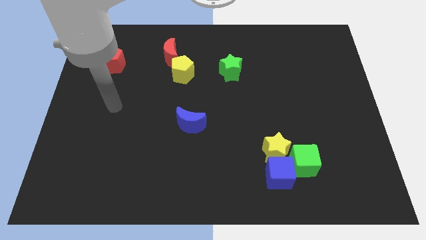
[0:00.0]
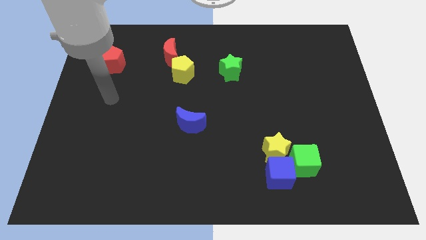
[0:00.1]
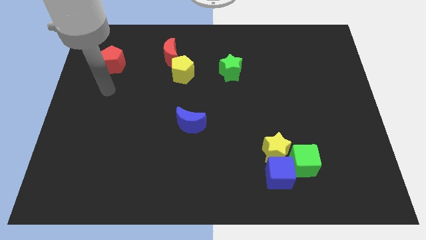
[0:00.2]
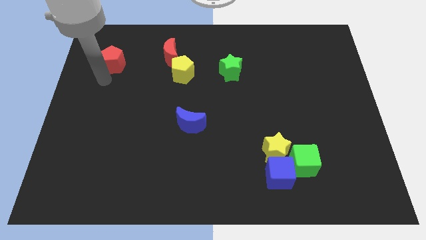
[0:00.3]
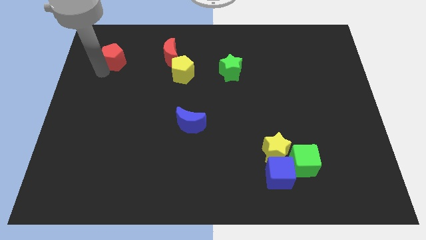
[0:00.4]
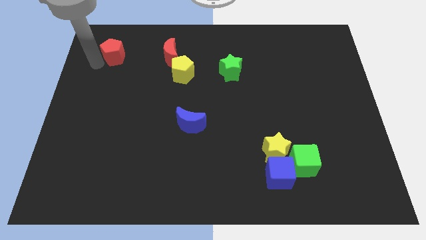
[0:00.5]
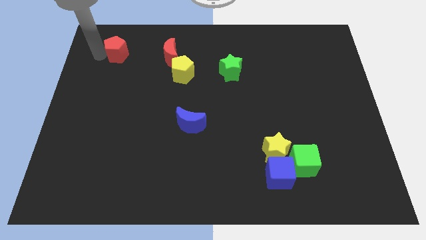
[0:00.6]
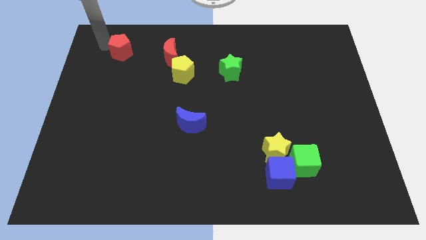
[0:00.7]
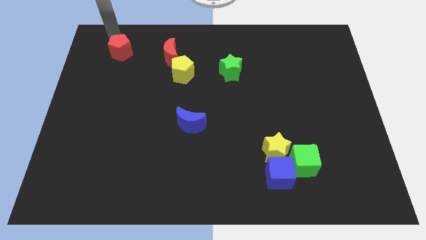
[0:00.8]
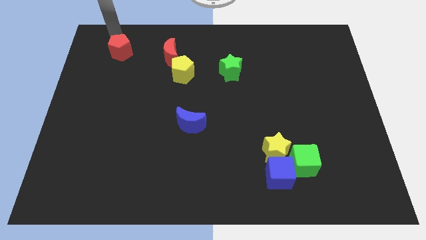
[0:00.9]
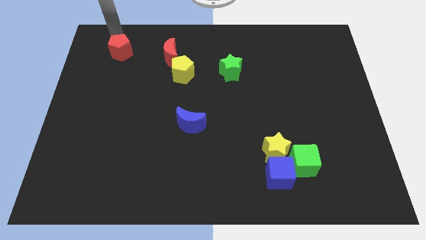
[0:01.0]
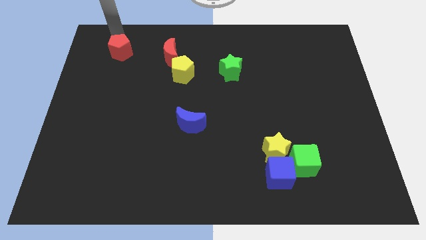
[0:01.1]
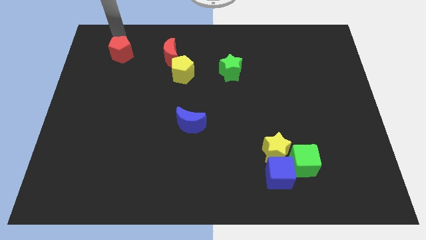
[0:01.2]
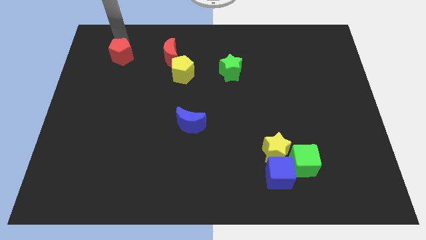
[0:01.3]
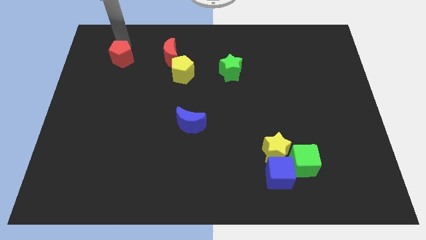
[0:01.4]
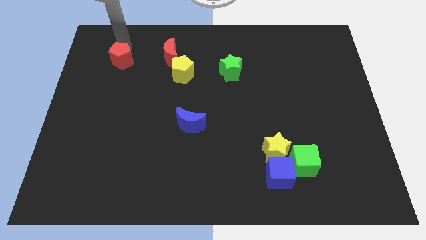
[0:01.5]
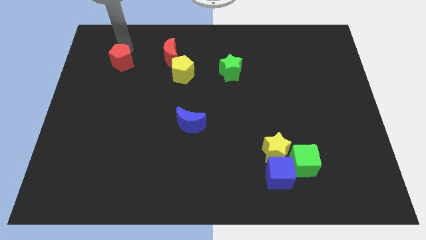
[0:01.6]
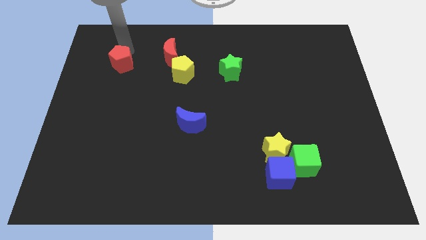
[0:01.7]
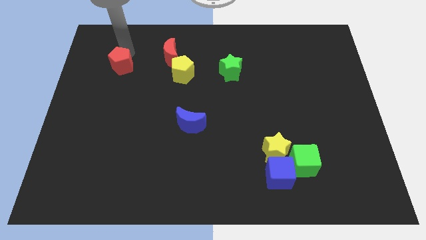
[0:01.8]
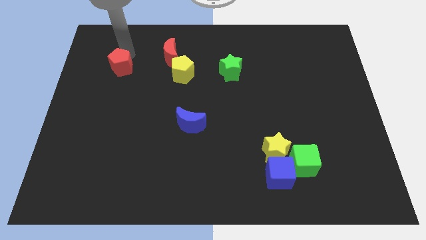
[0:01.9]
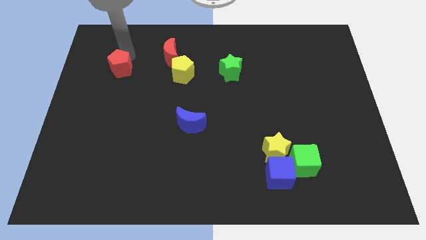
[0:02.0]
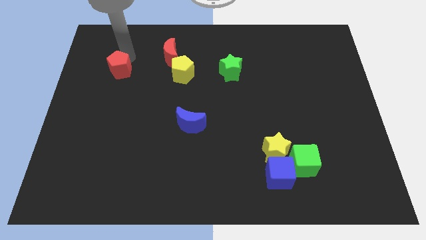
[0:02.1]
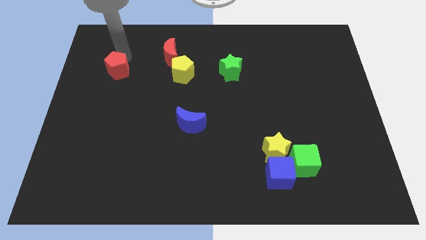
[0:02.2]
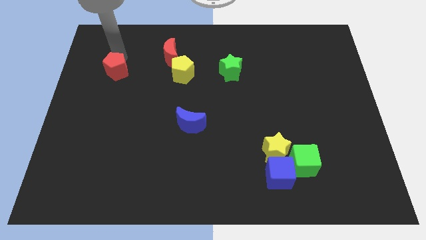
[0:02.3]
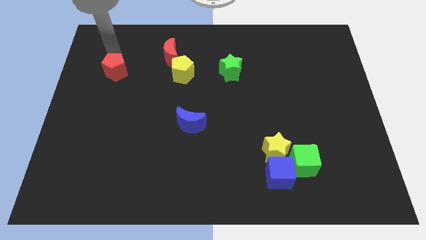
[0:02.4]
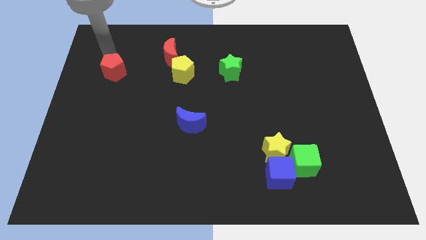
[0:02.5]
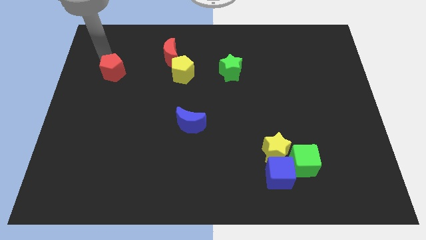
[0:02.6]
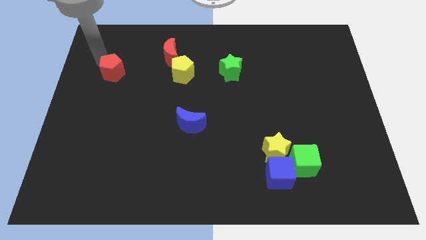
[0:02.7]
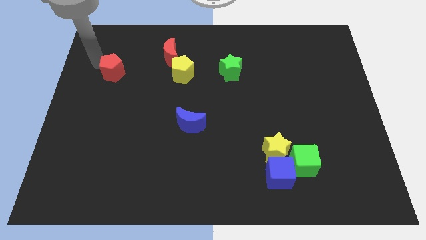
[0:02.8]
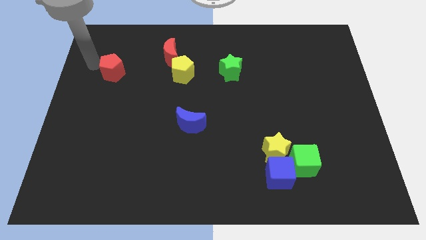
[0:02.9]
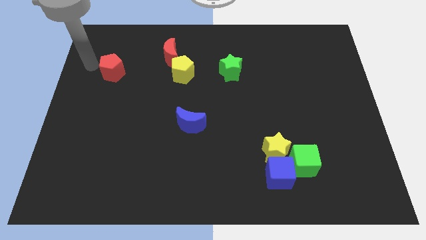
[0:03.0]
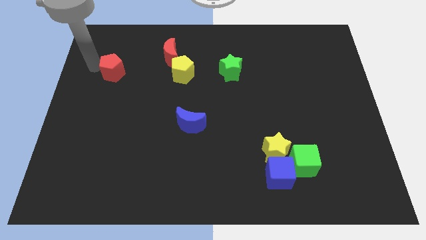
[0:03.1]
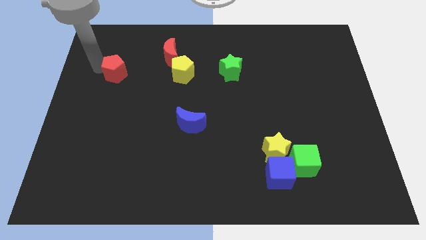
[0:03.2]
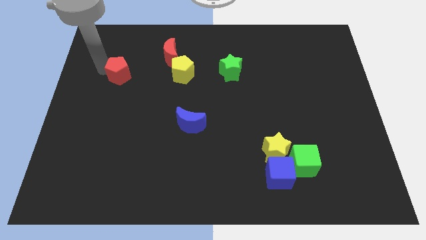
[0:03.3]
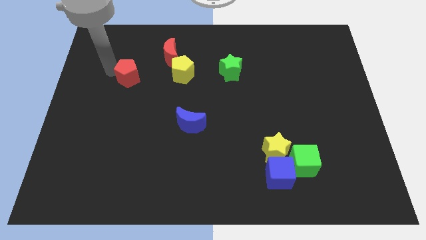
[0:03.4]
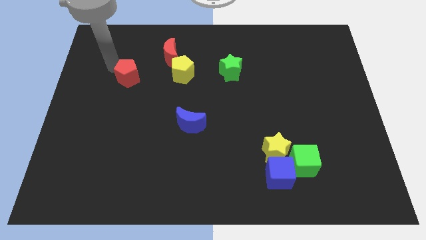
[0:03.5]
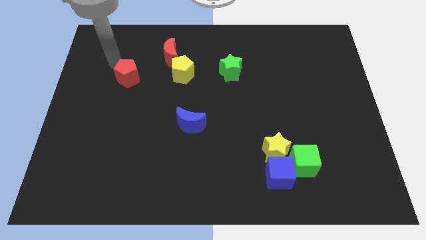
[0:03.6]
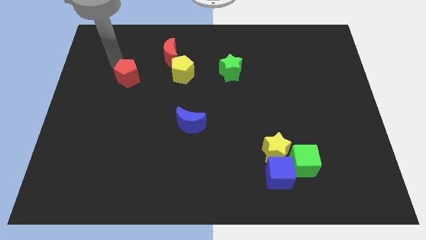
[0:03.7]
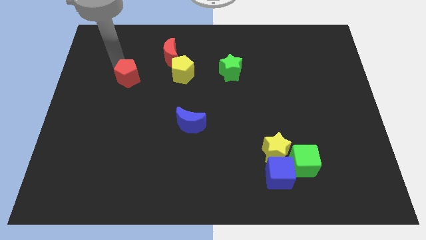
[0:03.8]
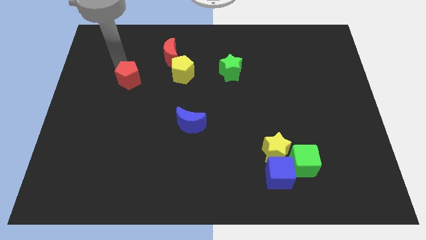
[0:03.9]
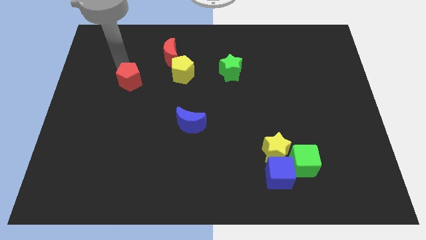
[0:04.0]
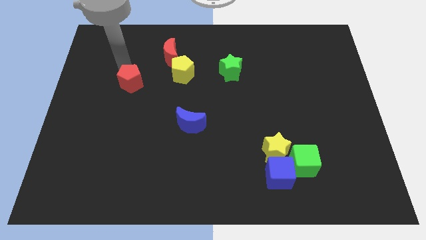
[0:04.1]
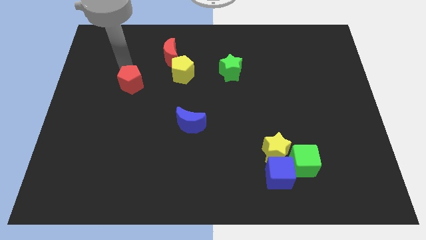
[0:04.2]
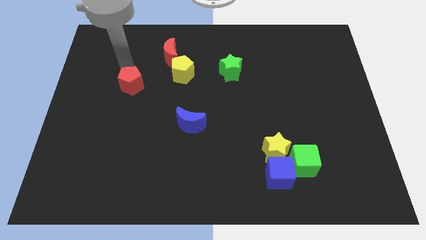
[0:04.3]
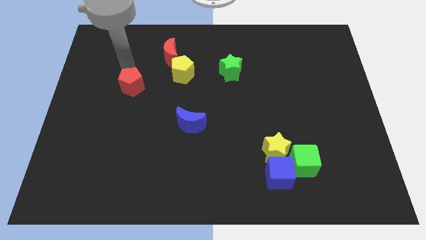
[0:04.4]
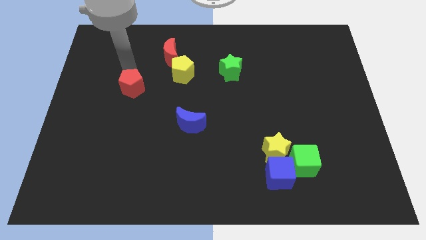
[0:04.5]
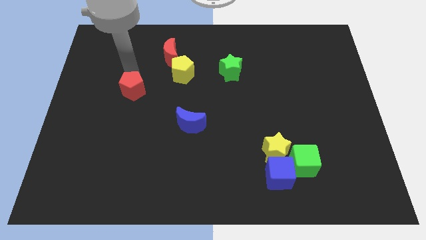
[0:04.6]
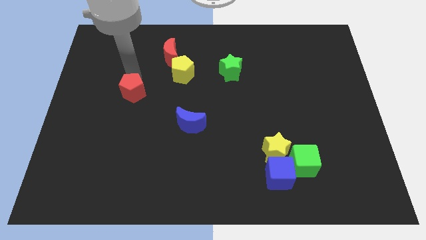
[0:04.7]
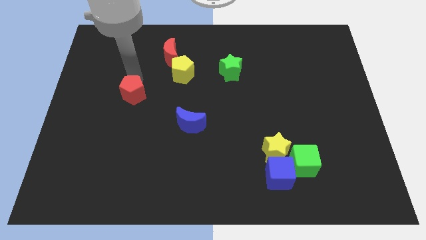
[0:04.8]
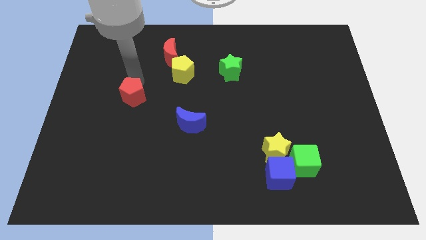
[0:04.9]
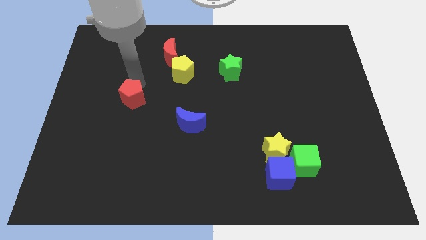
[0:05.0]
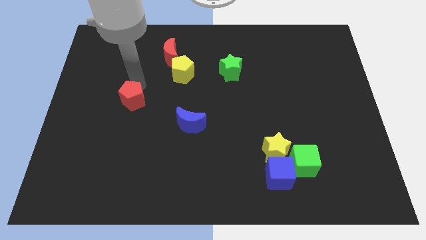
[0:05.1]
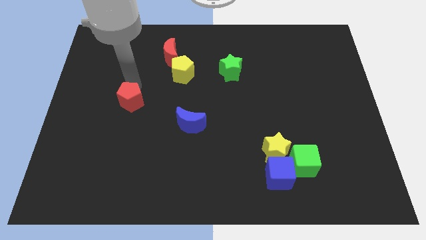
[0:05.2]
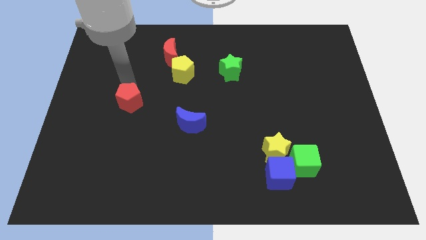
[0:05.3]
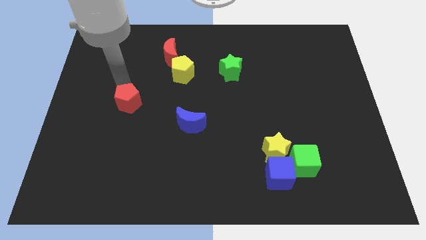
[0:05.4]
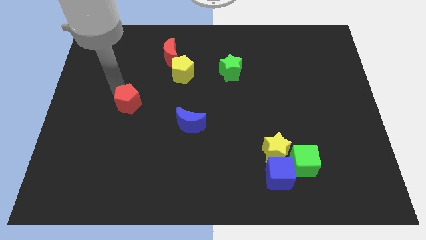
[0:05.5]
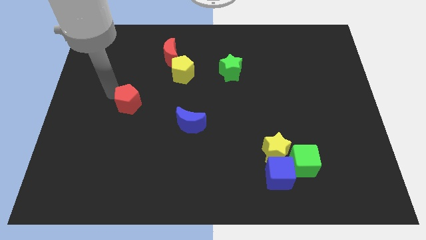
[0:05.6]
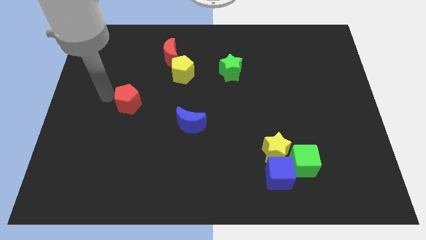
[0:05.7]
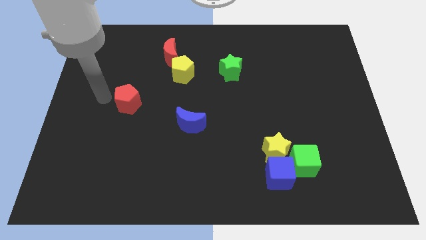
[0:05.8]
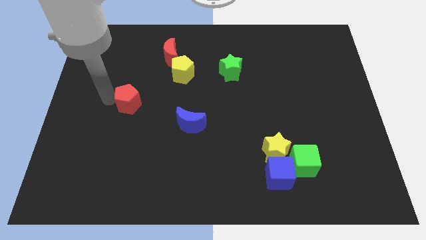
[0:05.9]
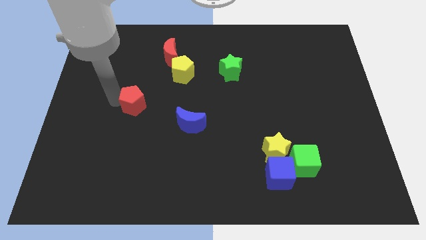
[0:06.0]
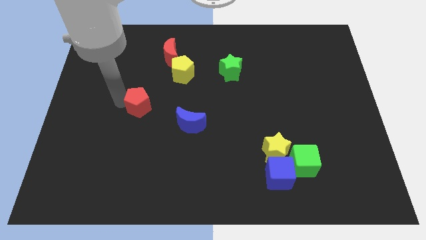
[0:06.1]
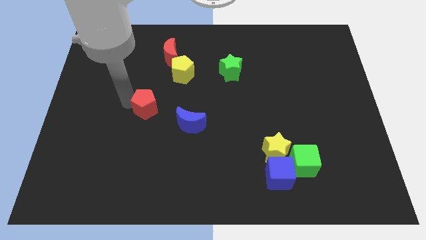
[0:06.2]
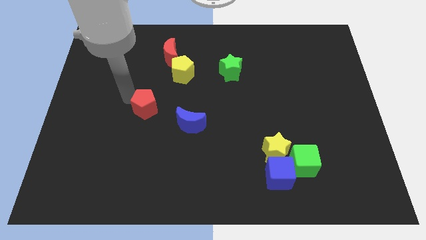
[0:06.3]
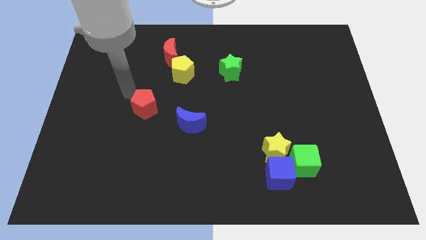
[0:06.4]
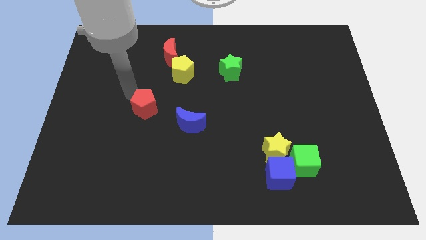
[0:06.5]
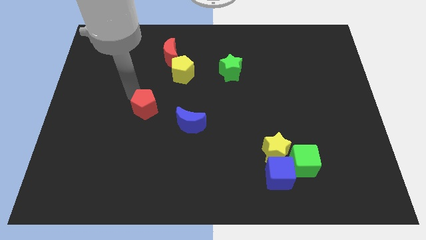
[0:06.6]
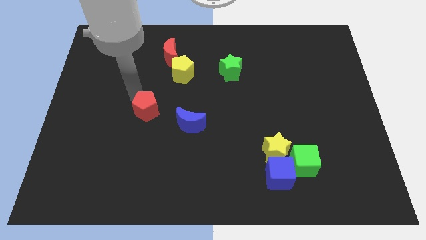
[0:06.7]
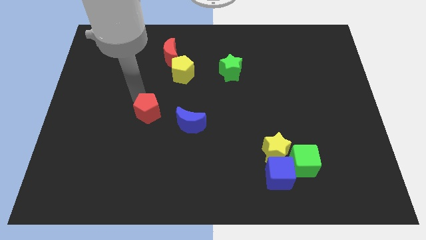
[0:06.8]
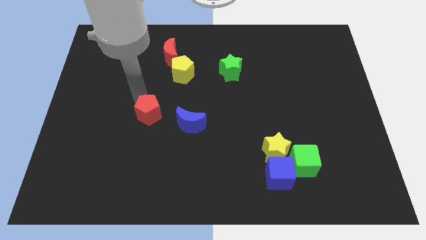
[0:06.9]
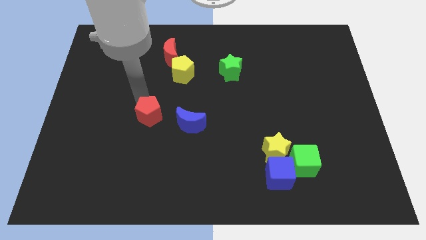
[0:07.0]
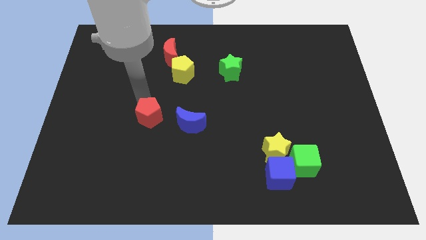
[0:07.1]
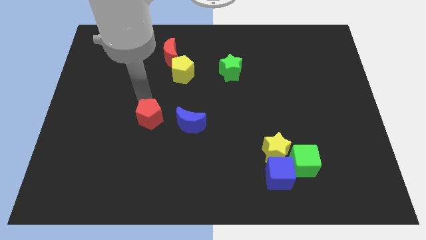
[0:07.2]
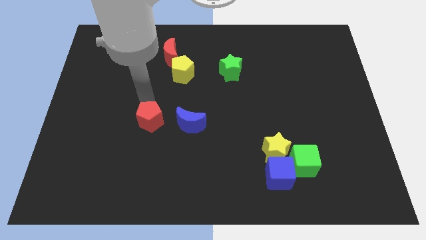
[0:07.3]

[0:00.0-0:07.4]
move the red pentagon downwards and right diagonally

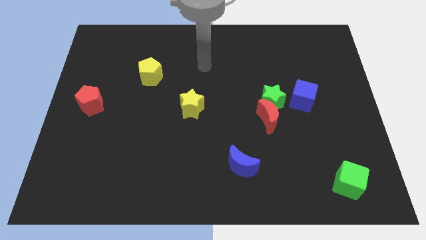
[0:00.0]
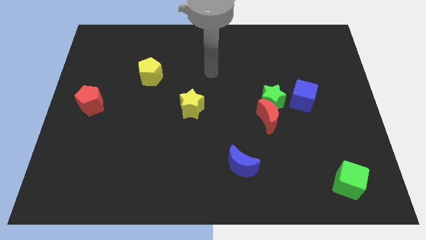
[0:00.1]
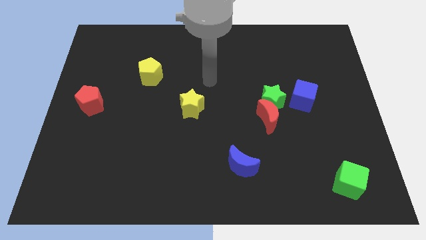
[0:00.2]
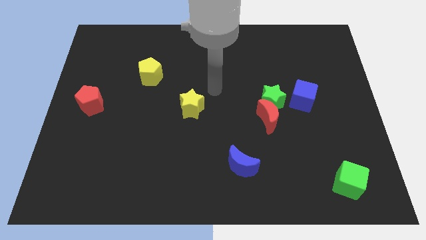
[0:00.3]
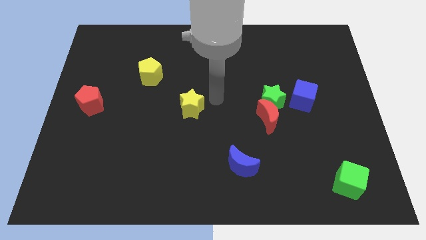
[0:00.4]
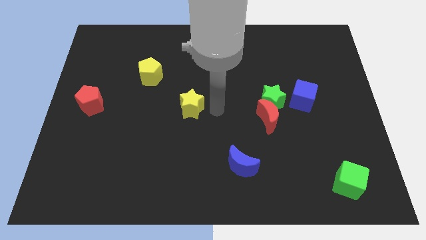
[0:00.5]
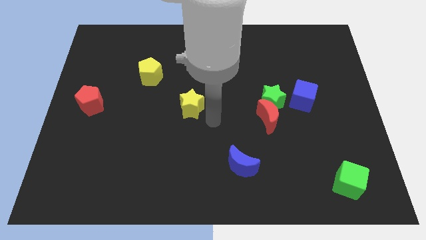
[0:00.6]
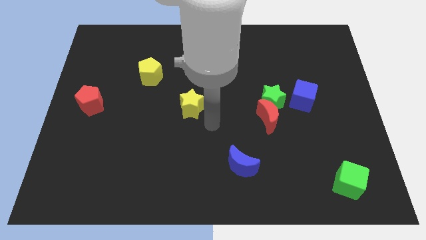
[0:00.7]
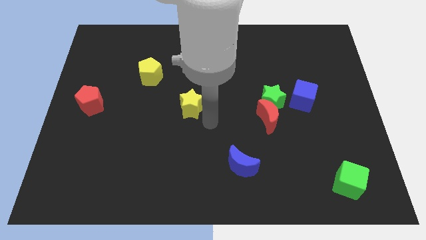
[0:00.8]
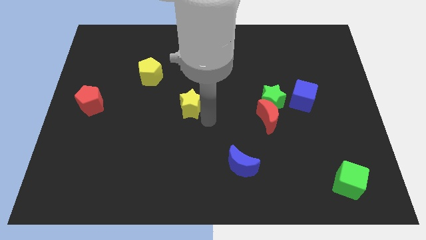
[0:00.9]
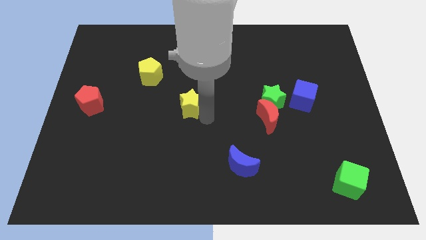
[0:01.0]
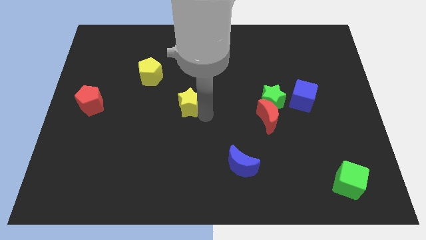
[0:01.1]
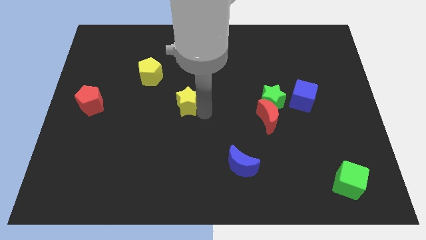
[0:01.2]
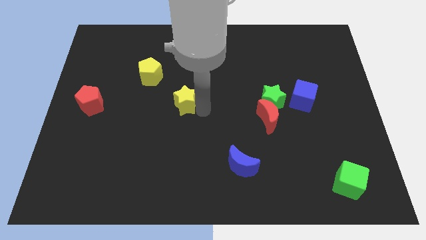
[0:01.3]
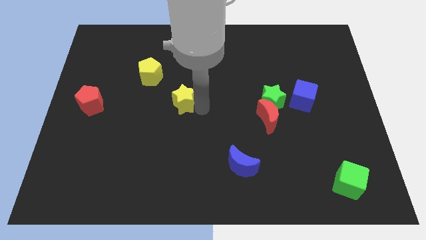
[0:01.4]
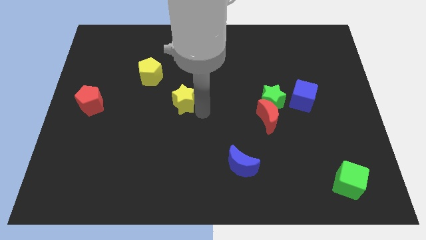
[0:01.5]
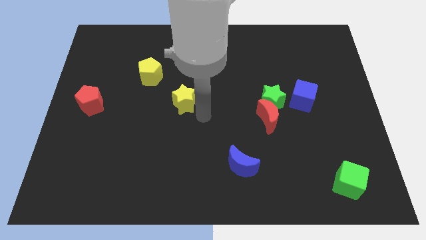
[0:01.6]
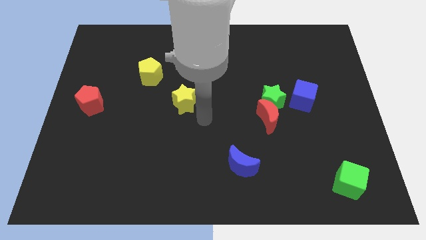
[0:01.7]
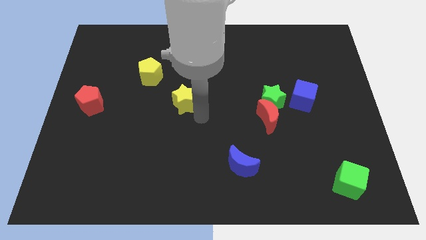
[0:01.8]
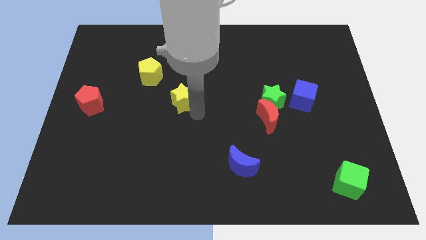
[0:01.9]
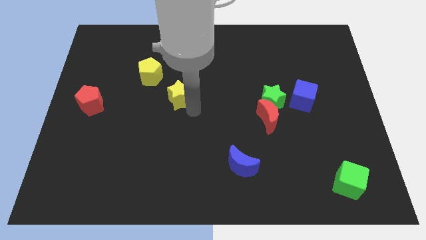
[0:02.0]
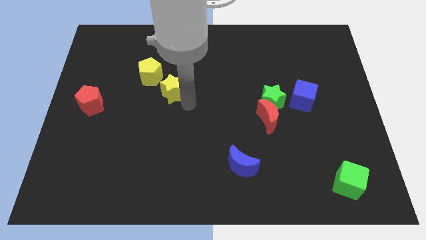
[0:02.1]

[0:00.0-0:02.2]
slightly slide the yellow star up and then left
